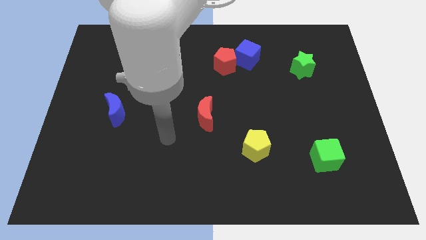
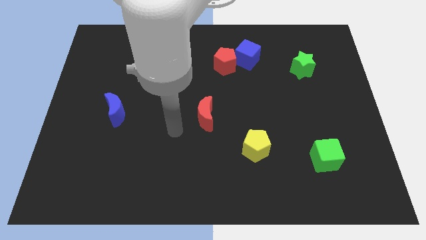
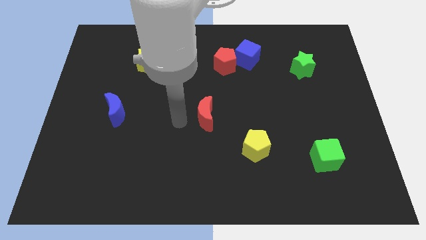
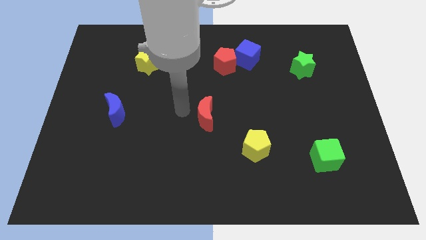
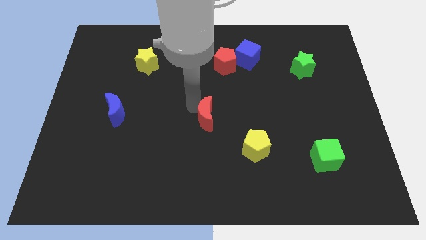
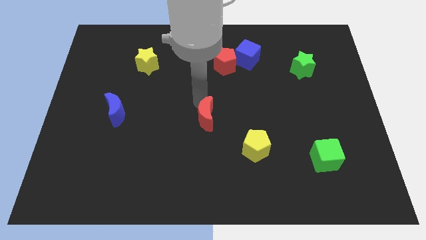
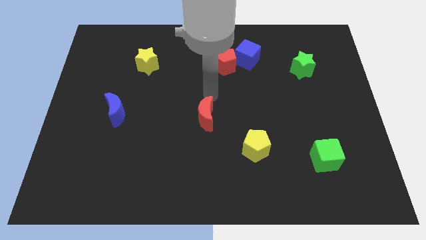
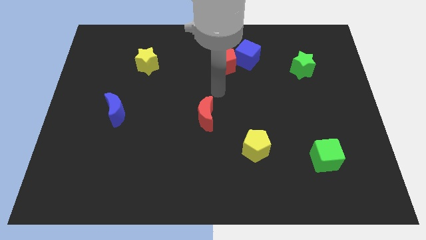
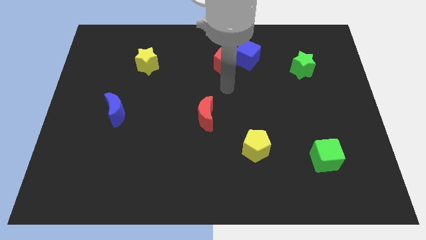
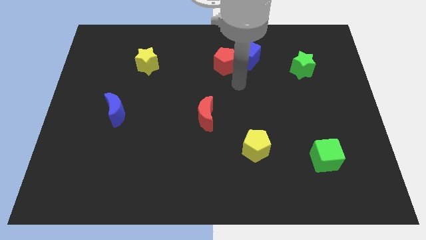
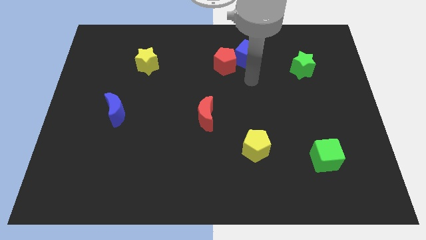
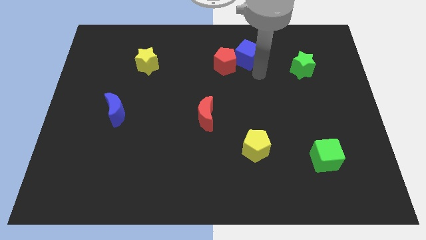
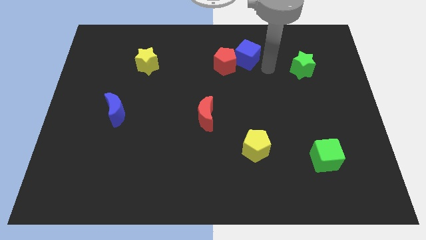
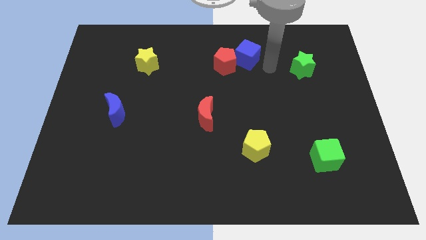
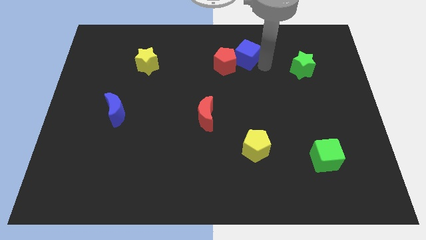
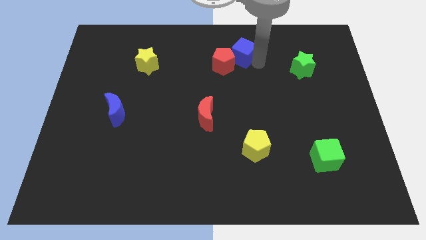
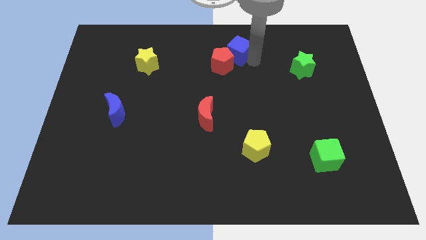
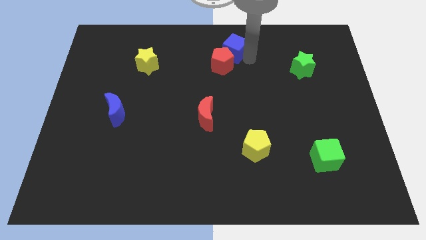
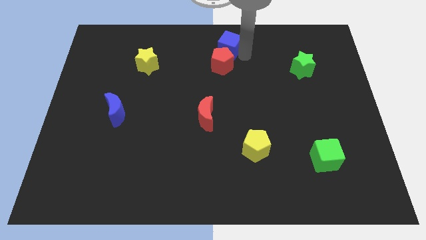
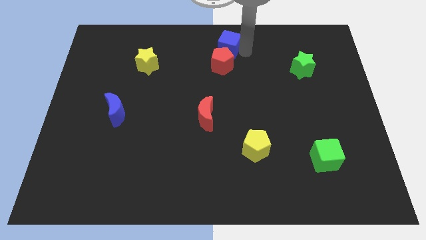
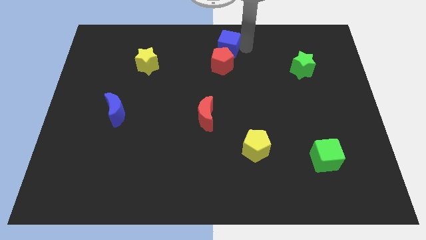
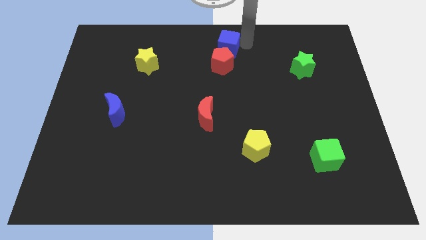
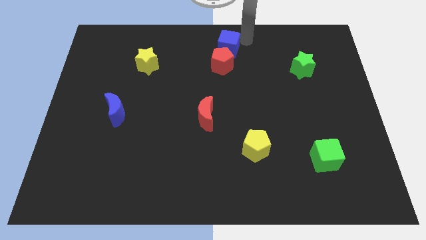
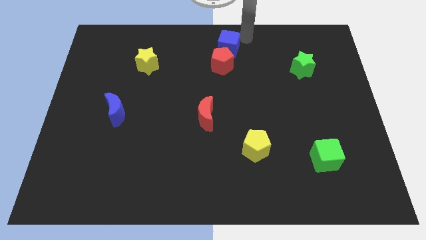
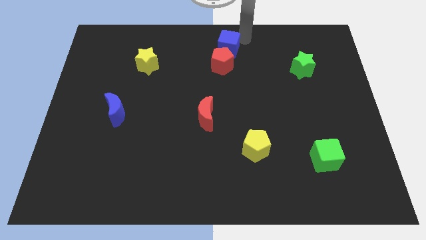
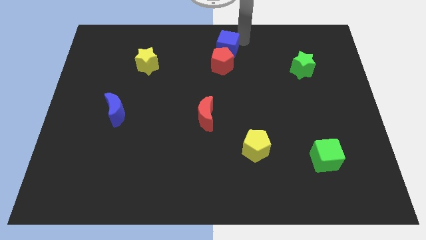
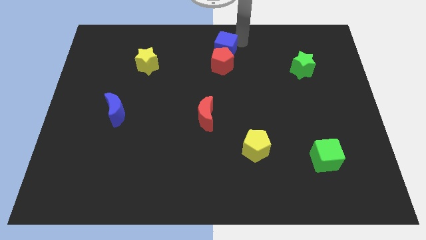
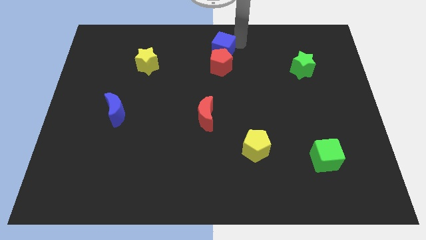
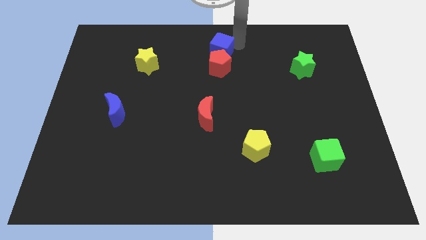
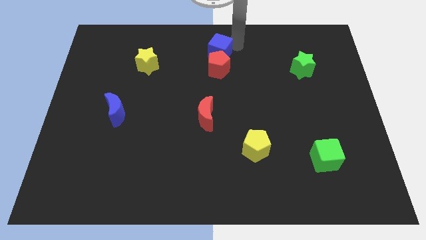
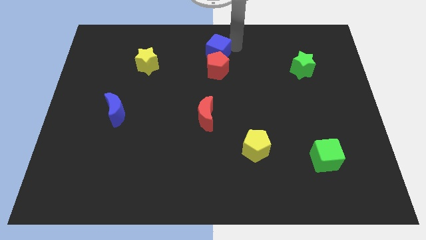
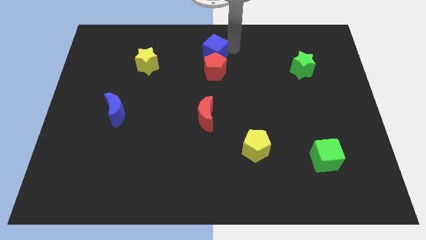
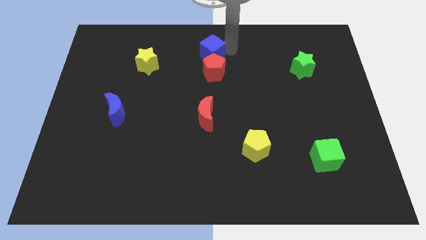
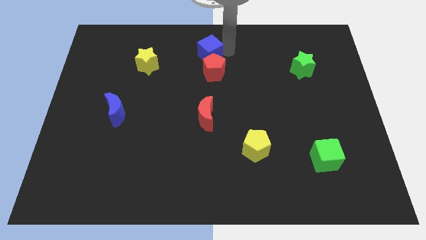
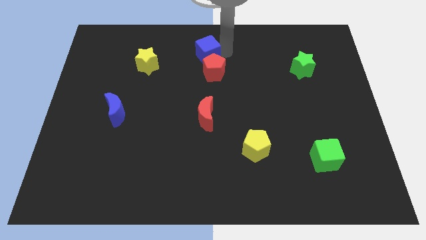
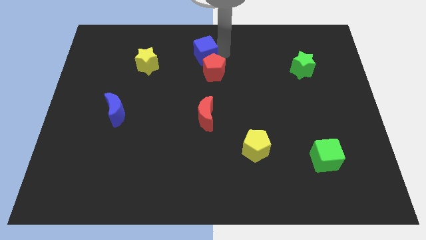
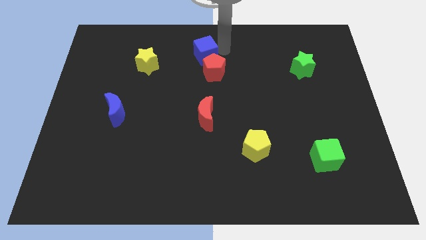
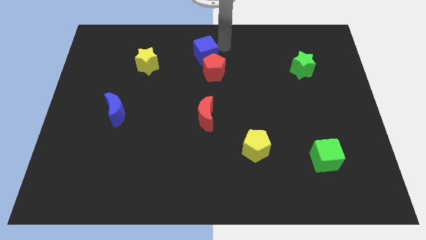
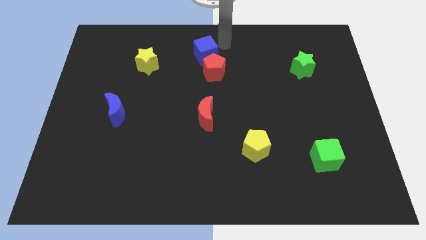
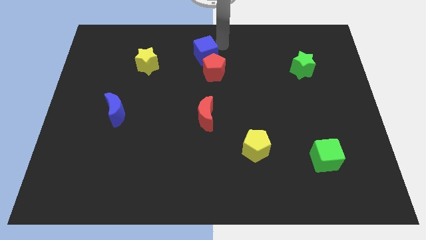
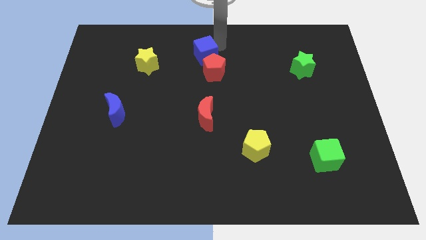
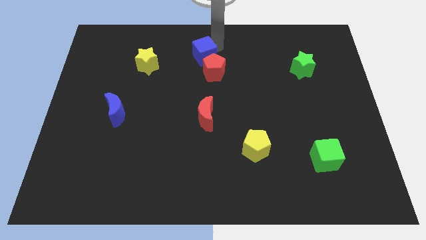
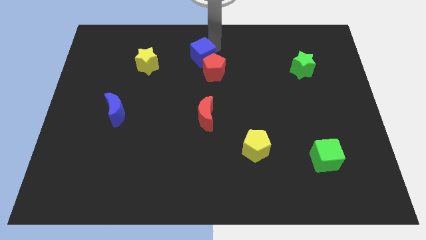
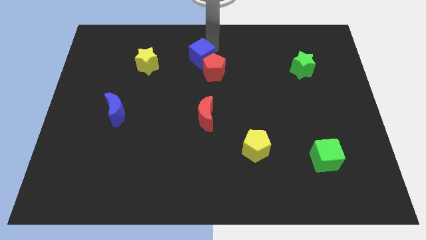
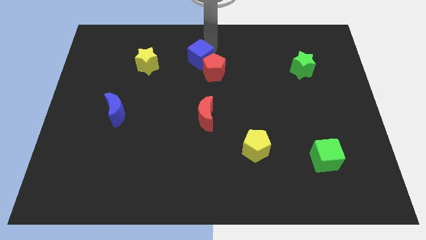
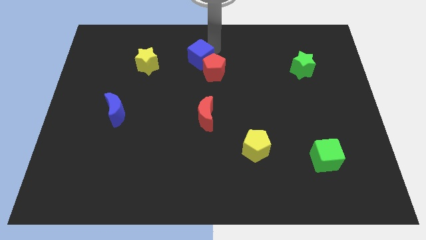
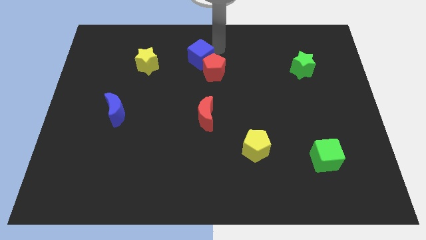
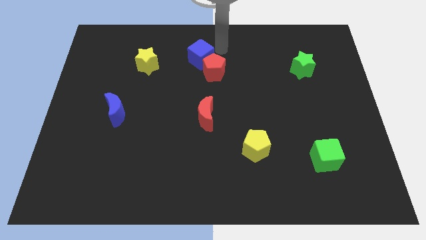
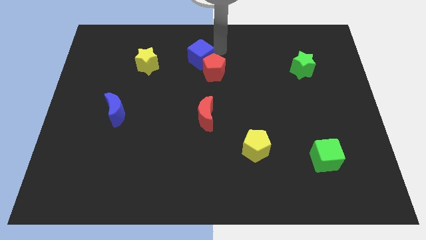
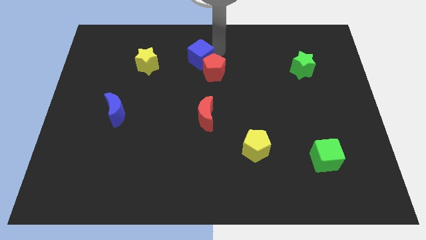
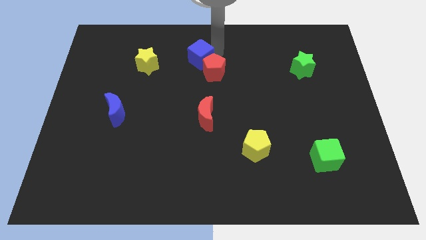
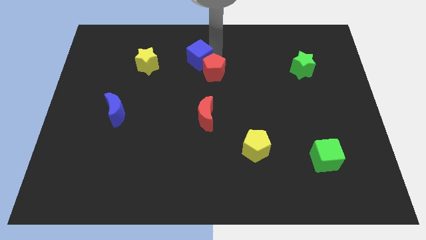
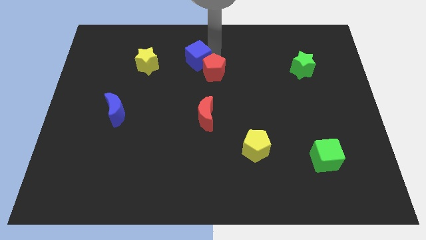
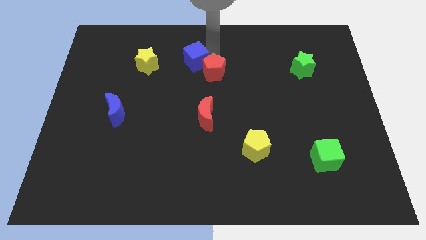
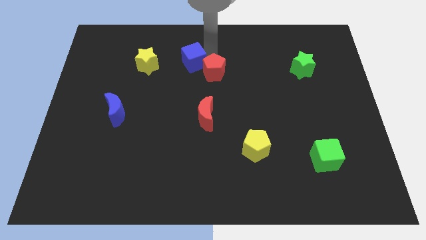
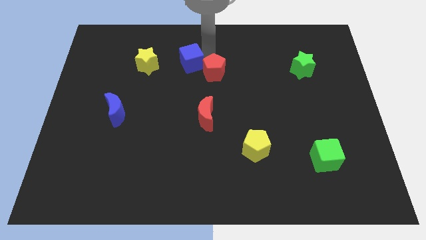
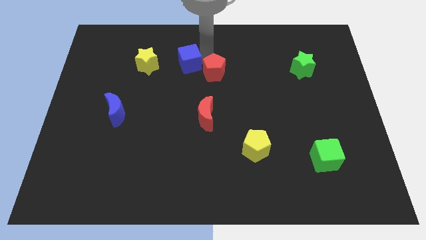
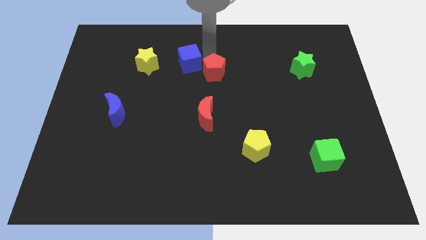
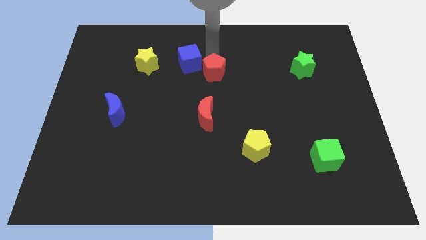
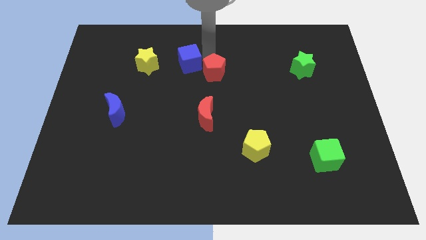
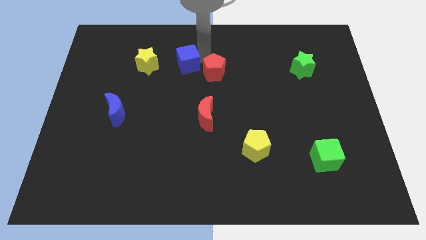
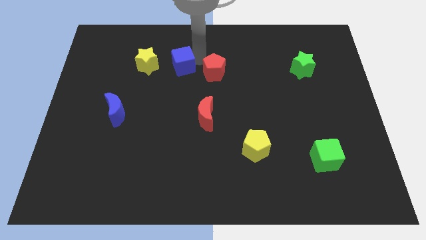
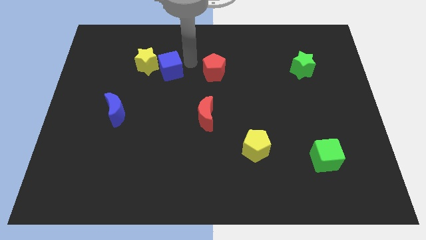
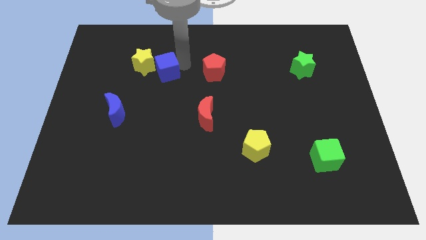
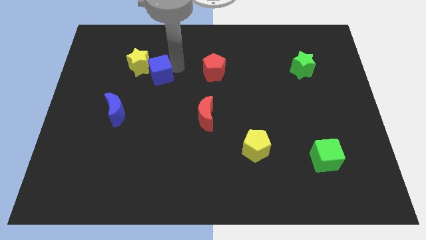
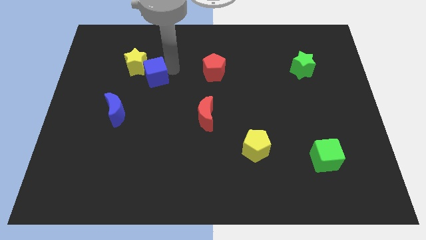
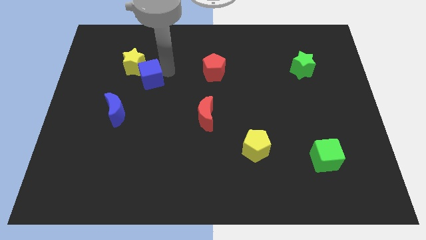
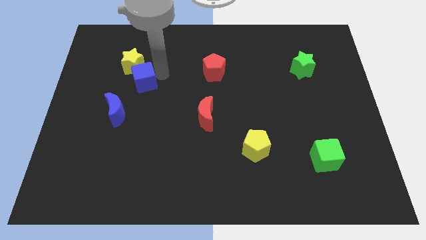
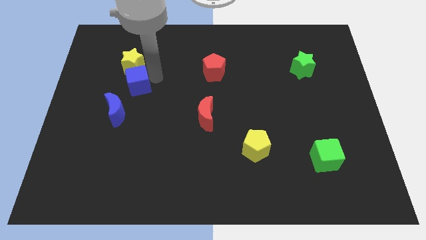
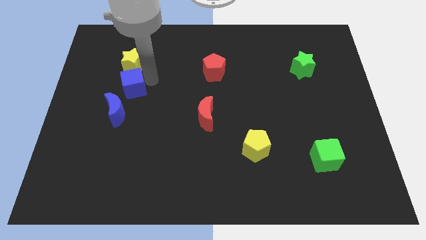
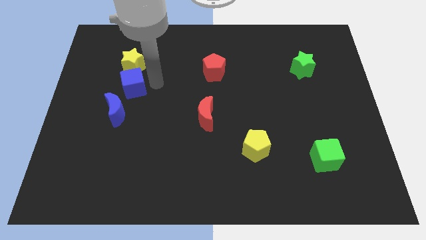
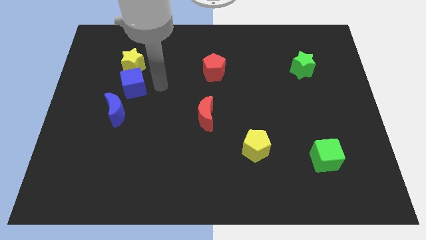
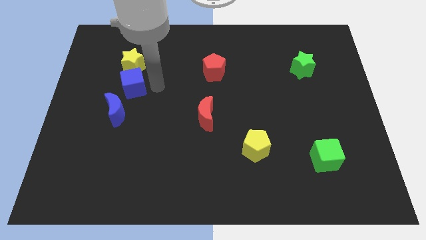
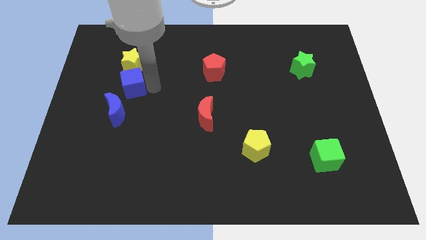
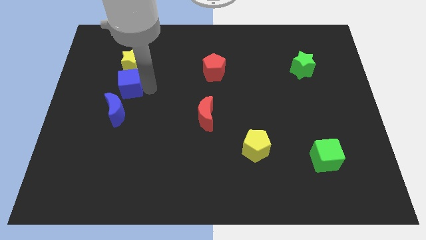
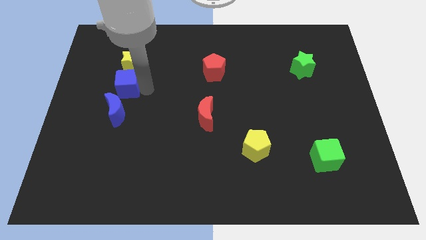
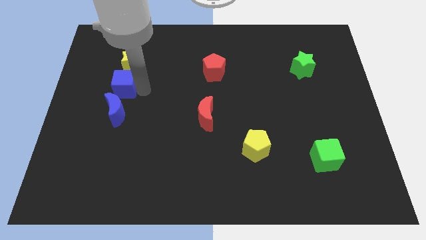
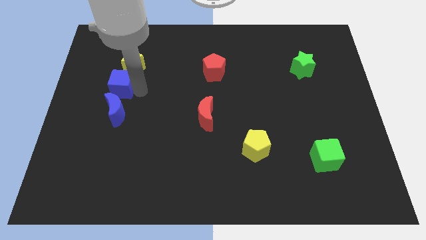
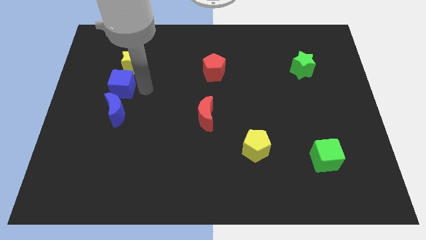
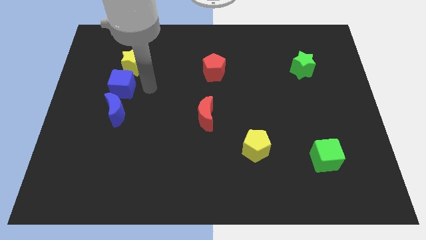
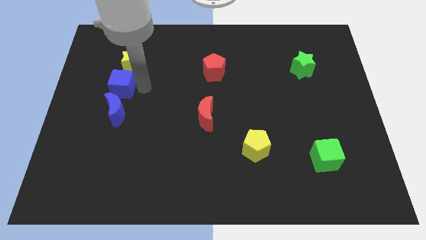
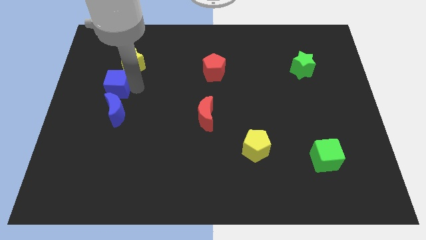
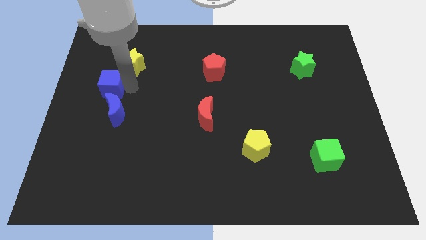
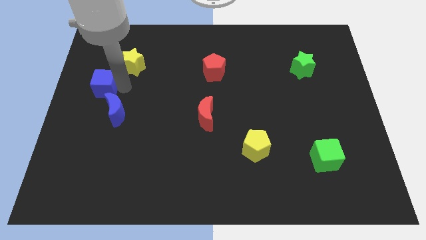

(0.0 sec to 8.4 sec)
slide the blue cube to the left side of the board
